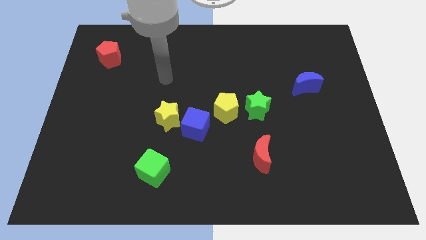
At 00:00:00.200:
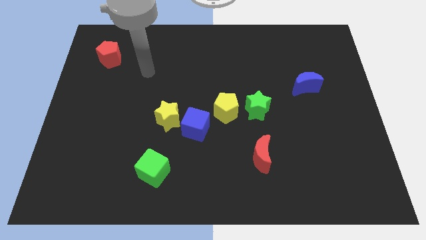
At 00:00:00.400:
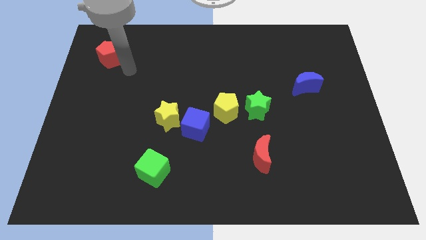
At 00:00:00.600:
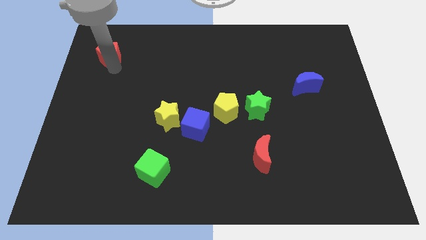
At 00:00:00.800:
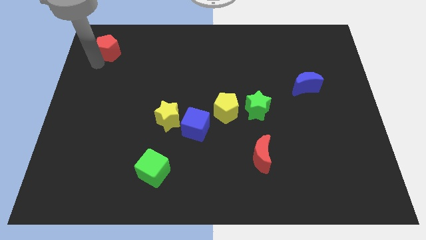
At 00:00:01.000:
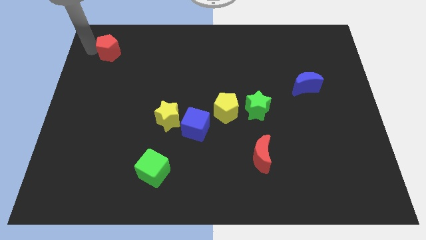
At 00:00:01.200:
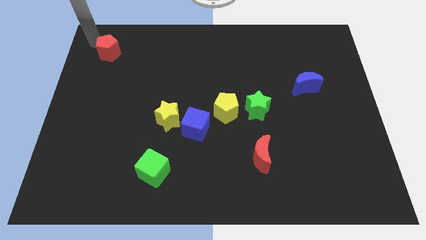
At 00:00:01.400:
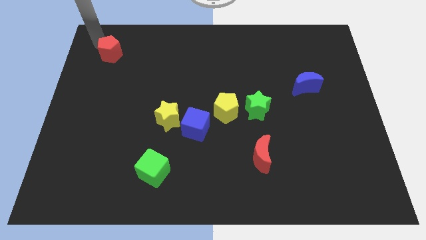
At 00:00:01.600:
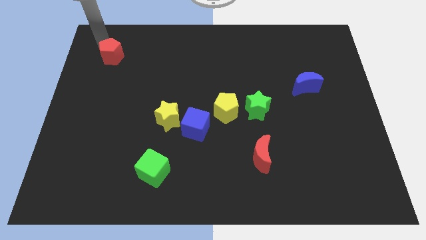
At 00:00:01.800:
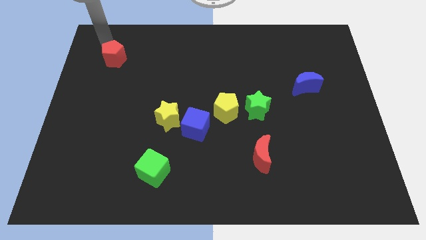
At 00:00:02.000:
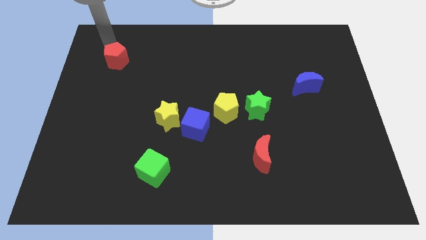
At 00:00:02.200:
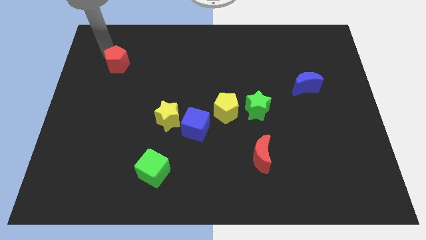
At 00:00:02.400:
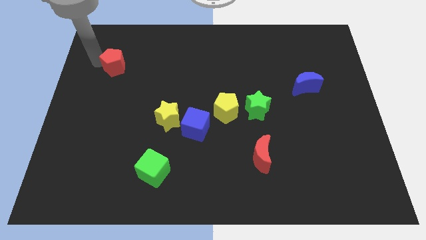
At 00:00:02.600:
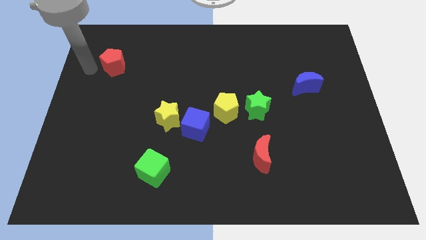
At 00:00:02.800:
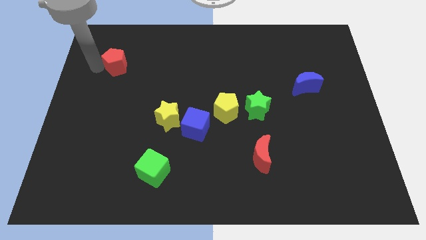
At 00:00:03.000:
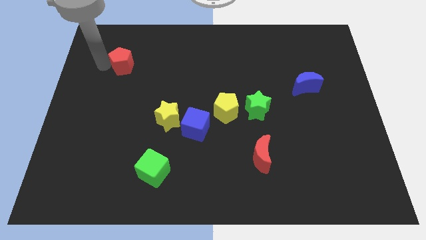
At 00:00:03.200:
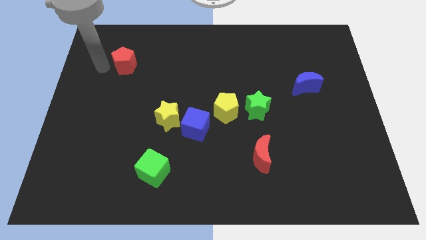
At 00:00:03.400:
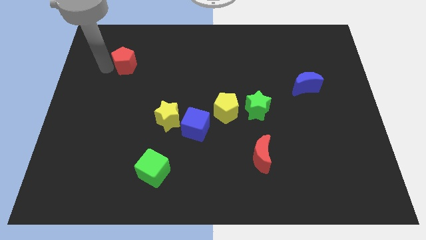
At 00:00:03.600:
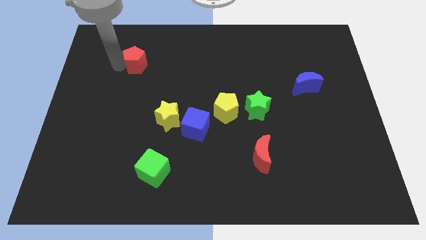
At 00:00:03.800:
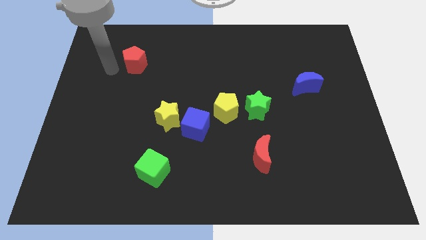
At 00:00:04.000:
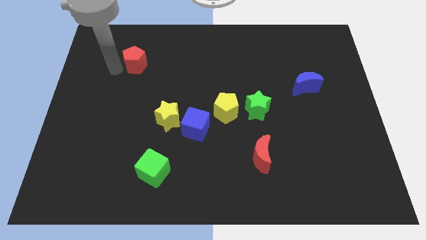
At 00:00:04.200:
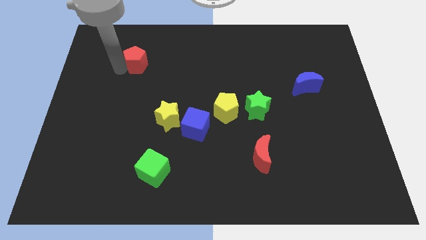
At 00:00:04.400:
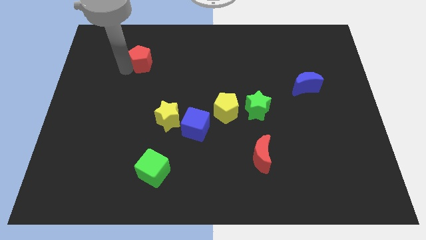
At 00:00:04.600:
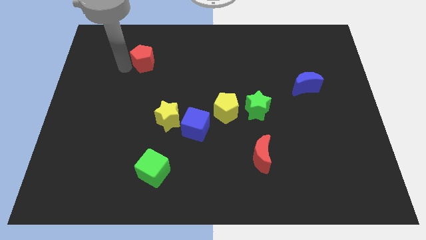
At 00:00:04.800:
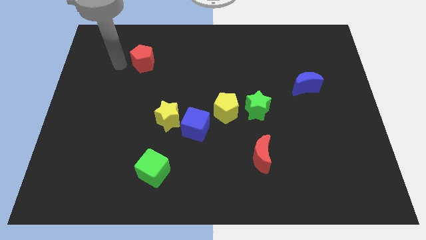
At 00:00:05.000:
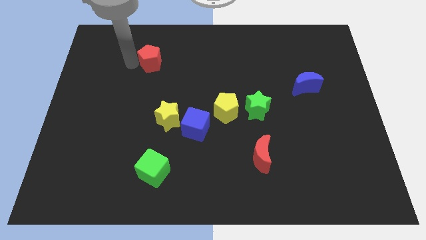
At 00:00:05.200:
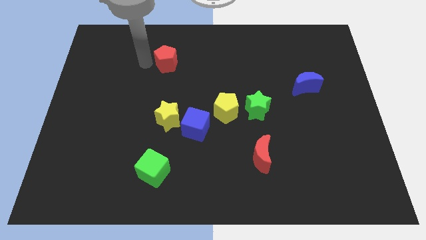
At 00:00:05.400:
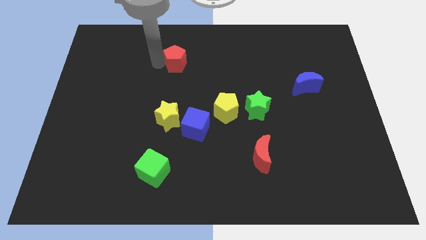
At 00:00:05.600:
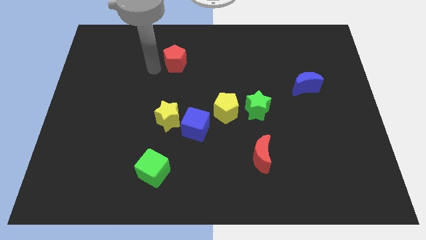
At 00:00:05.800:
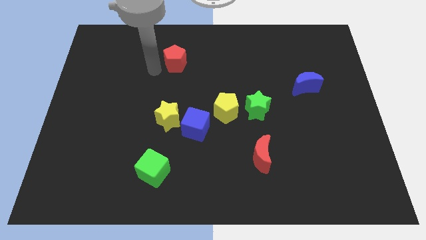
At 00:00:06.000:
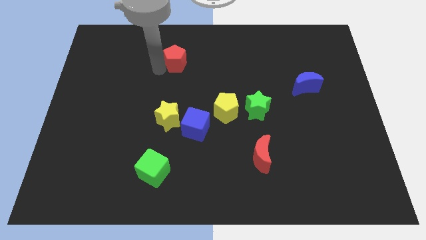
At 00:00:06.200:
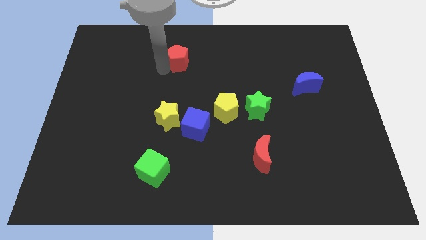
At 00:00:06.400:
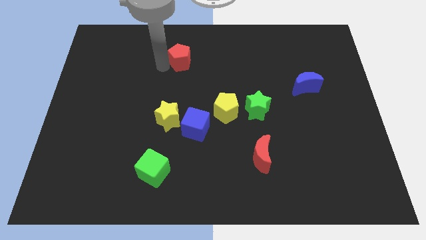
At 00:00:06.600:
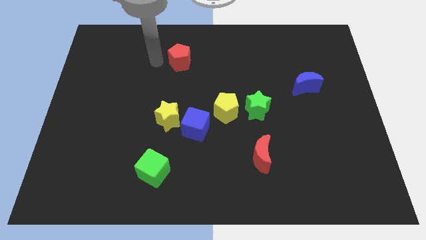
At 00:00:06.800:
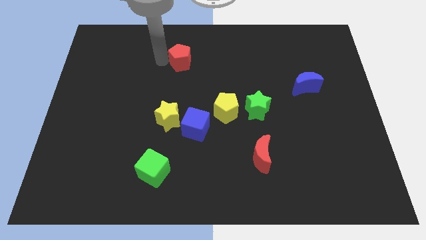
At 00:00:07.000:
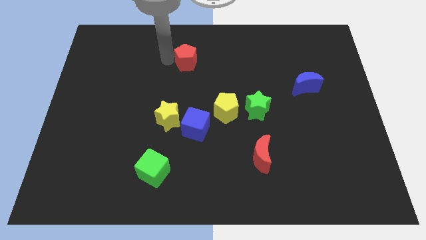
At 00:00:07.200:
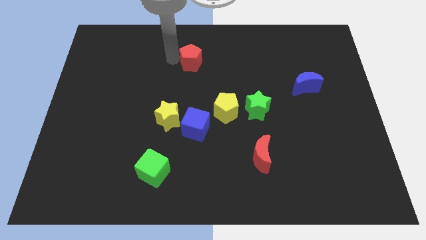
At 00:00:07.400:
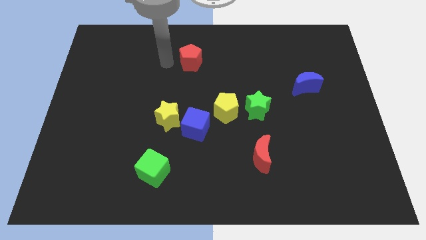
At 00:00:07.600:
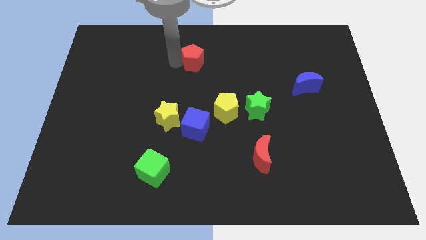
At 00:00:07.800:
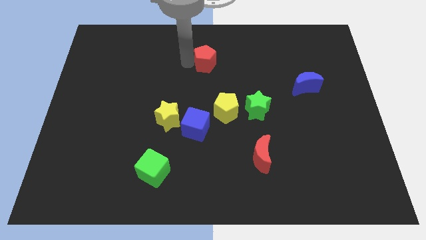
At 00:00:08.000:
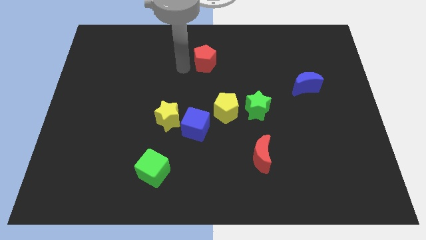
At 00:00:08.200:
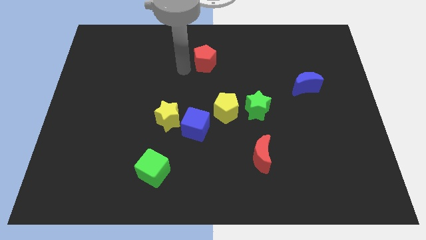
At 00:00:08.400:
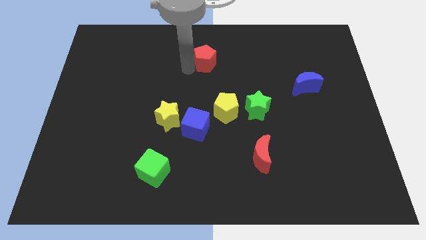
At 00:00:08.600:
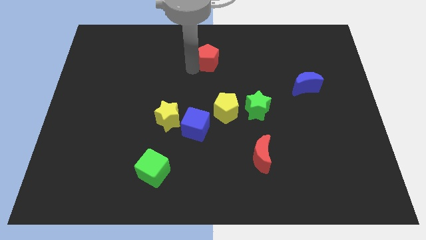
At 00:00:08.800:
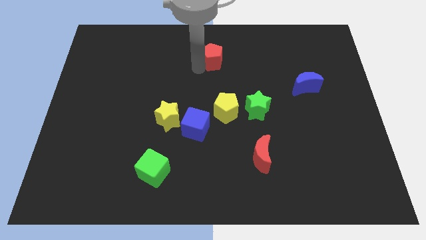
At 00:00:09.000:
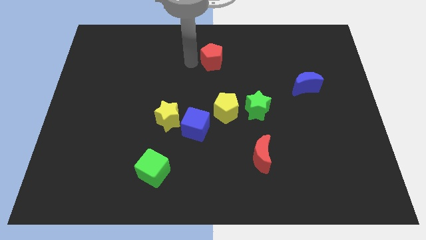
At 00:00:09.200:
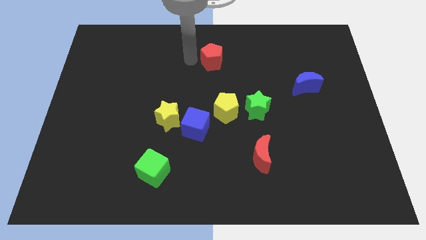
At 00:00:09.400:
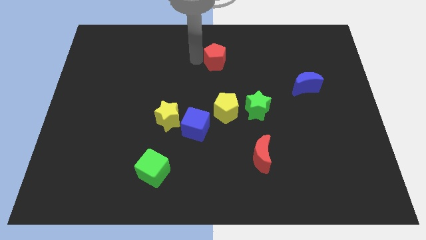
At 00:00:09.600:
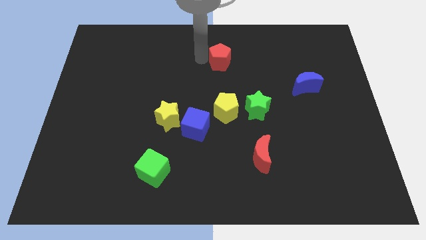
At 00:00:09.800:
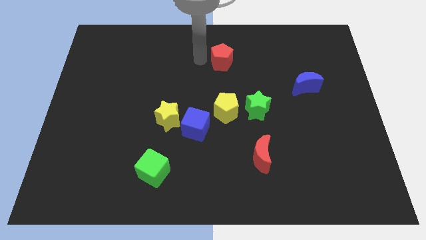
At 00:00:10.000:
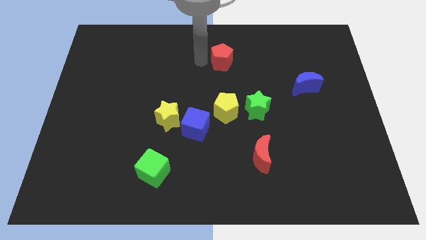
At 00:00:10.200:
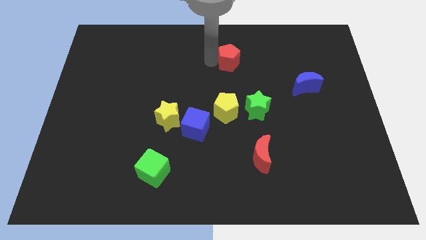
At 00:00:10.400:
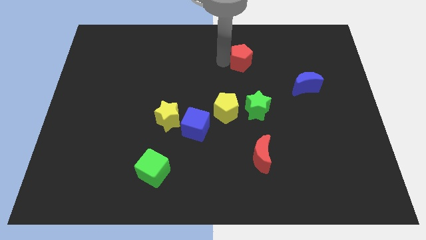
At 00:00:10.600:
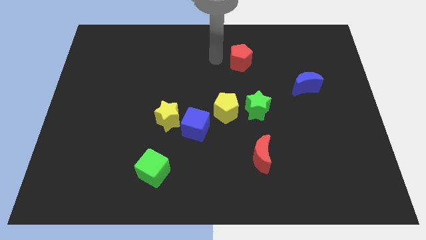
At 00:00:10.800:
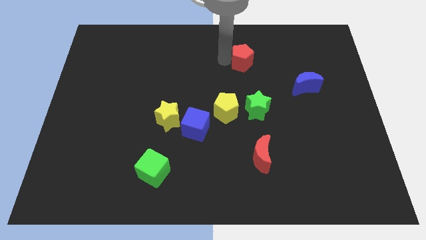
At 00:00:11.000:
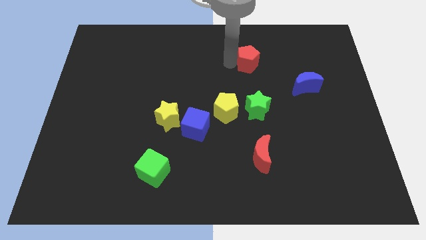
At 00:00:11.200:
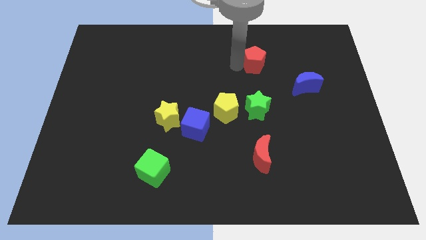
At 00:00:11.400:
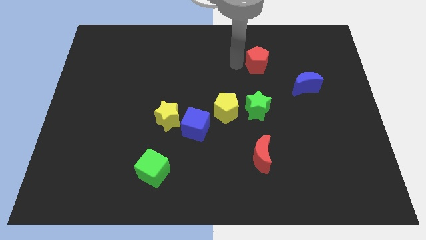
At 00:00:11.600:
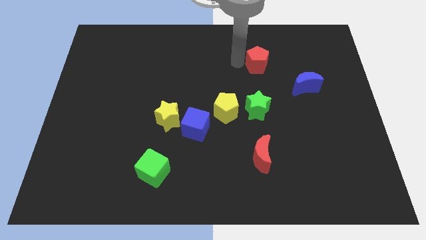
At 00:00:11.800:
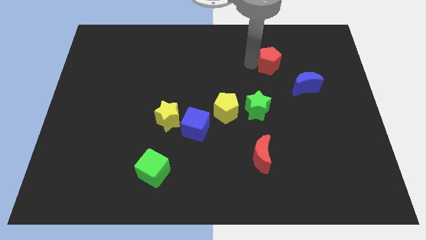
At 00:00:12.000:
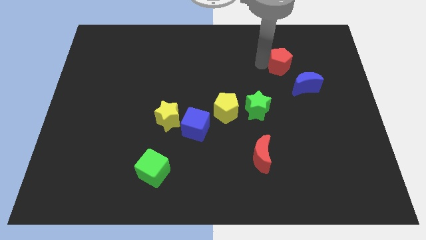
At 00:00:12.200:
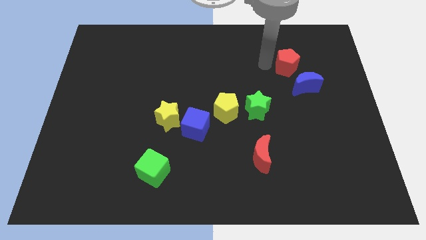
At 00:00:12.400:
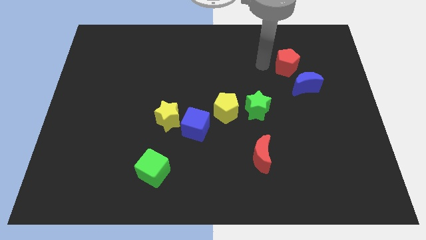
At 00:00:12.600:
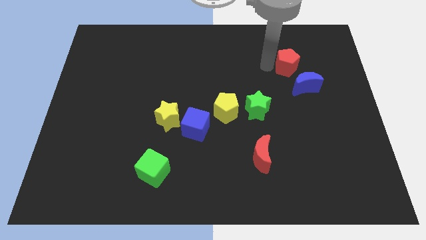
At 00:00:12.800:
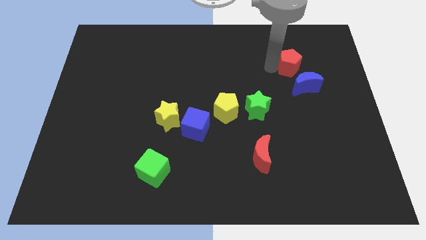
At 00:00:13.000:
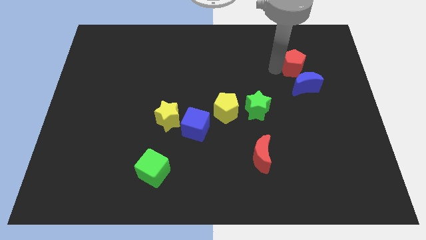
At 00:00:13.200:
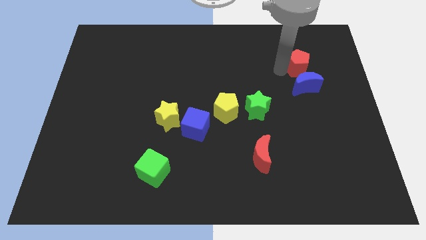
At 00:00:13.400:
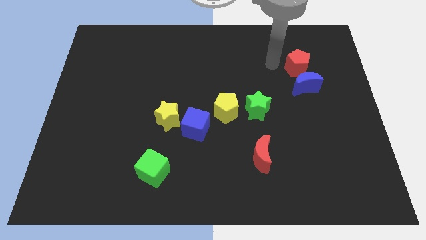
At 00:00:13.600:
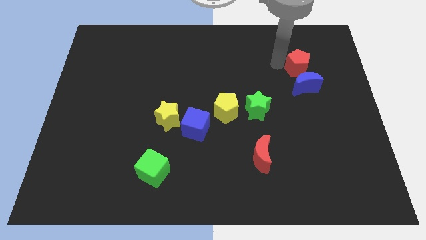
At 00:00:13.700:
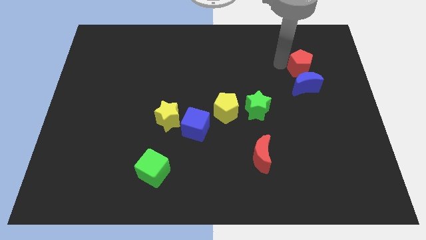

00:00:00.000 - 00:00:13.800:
push the red pentagon to the top right side of the blue moon
